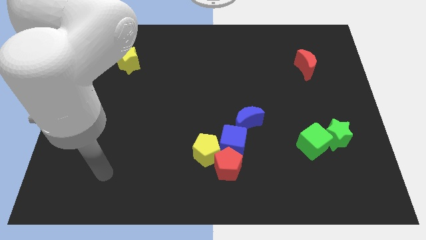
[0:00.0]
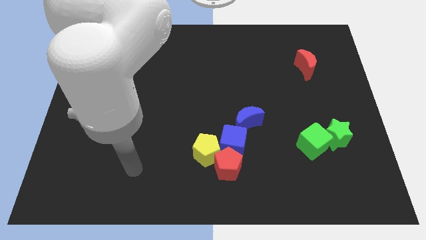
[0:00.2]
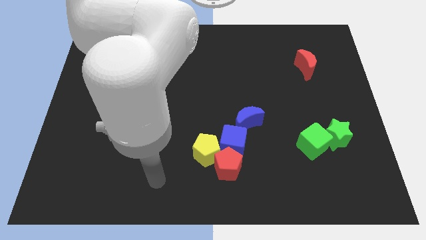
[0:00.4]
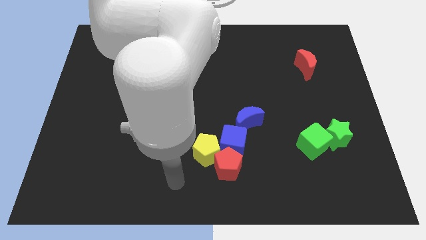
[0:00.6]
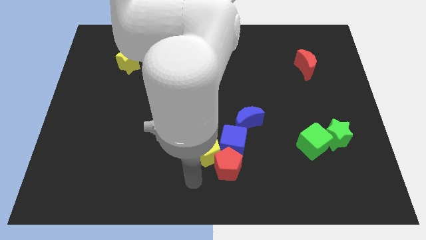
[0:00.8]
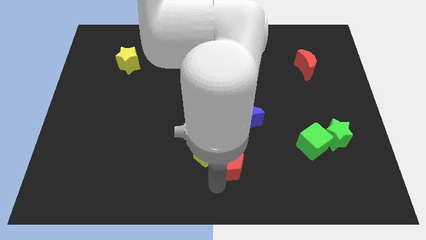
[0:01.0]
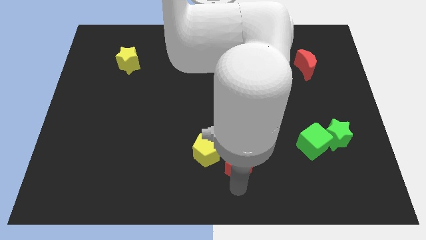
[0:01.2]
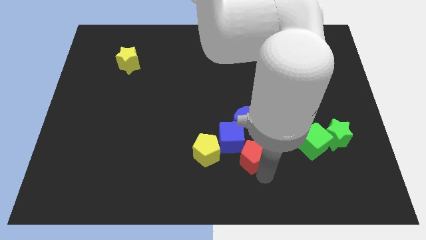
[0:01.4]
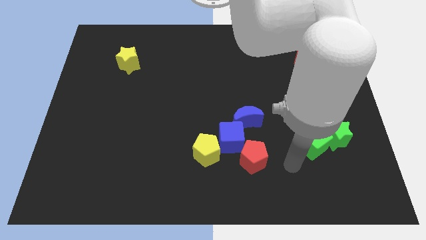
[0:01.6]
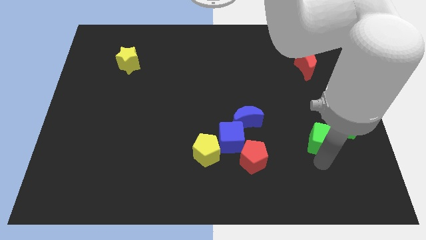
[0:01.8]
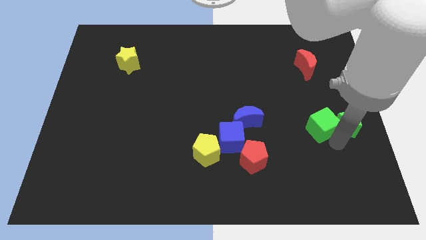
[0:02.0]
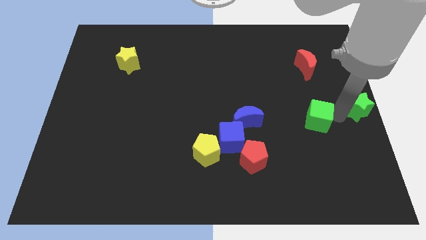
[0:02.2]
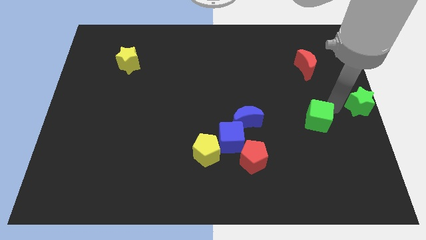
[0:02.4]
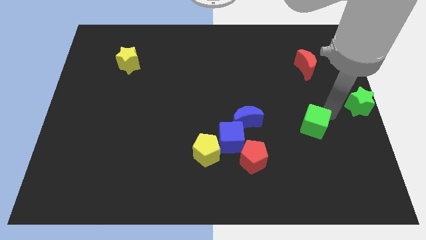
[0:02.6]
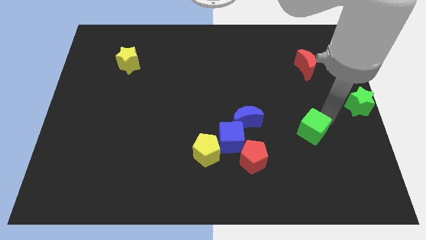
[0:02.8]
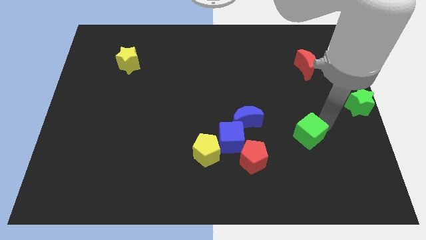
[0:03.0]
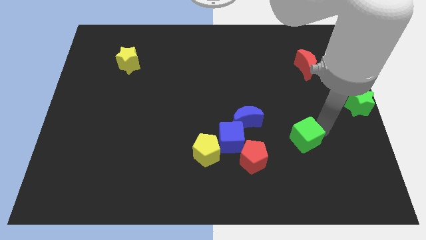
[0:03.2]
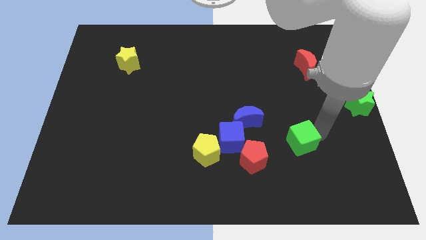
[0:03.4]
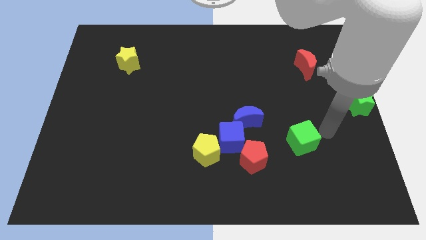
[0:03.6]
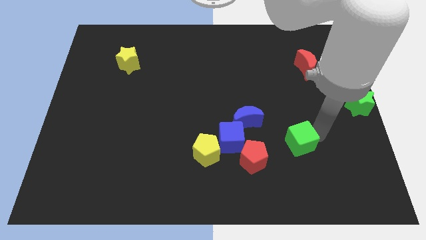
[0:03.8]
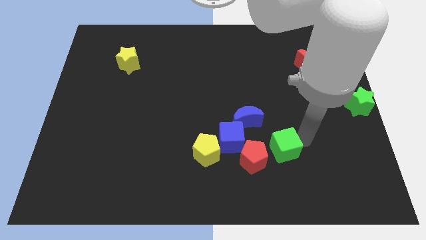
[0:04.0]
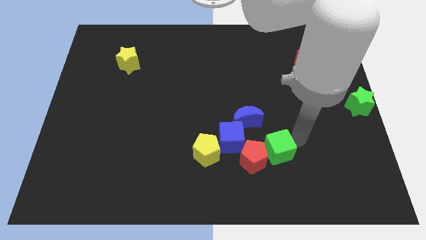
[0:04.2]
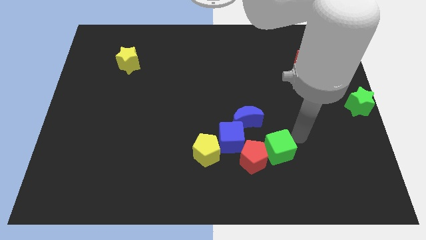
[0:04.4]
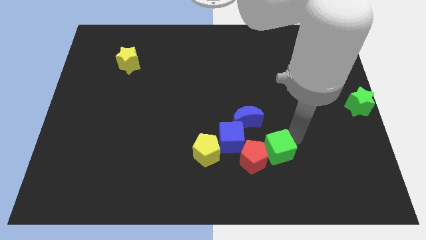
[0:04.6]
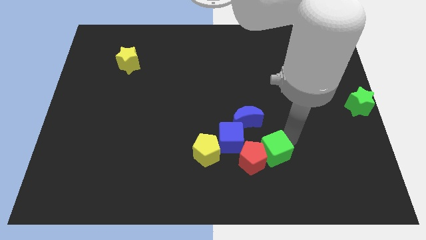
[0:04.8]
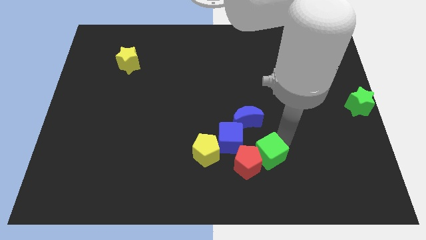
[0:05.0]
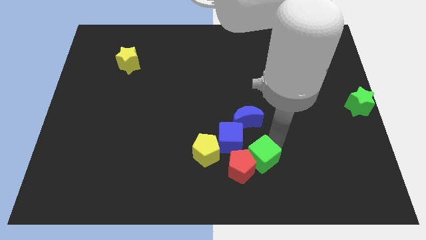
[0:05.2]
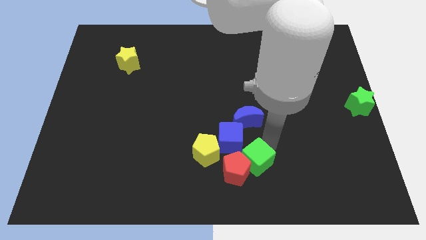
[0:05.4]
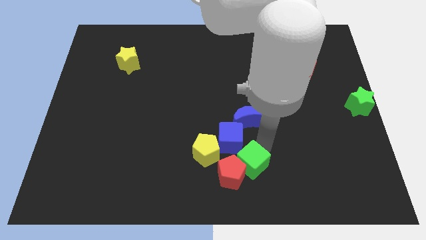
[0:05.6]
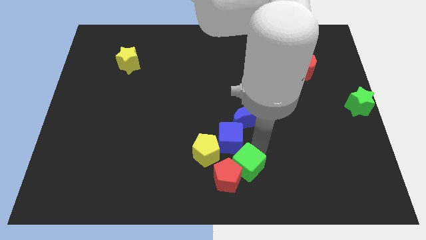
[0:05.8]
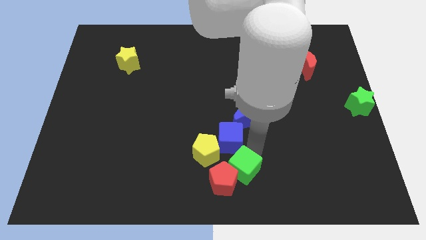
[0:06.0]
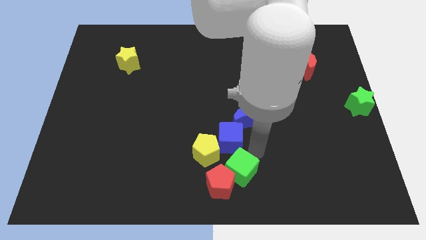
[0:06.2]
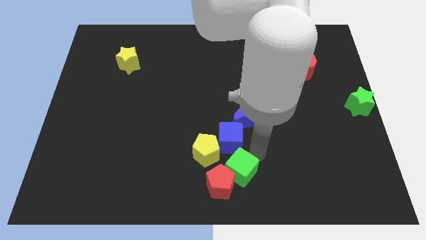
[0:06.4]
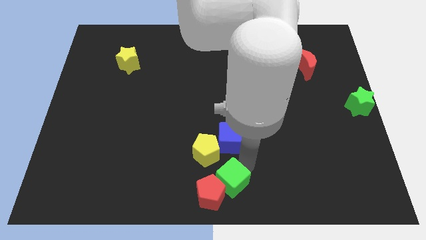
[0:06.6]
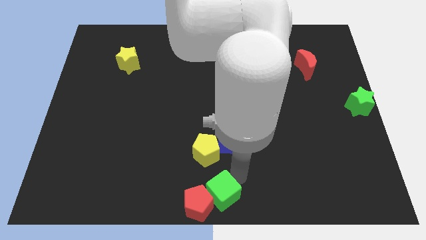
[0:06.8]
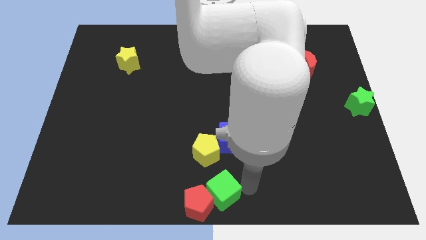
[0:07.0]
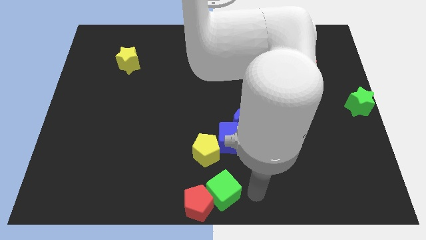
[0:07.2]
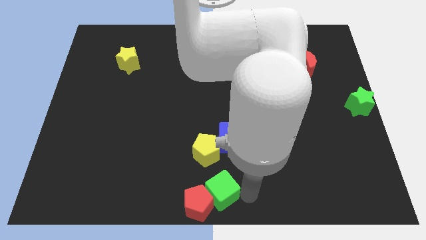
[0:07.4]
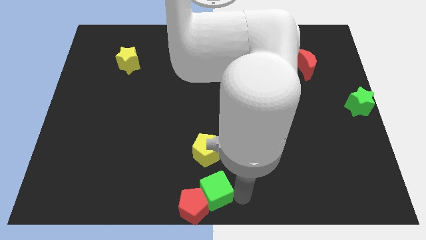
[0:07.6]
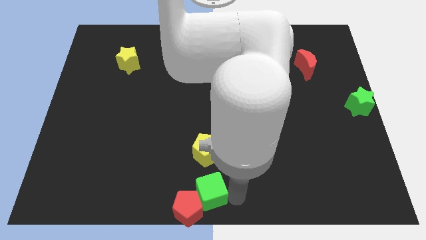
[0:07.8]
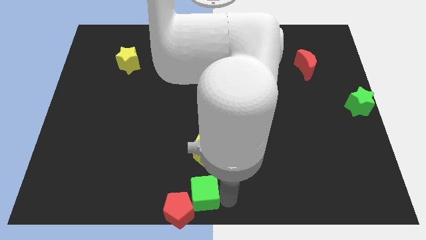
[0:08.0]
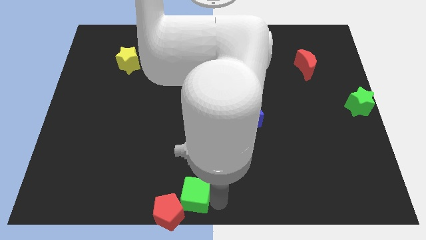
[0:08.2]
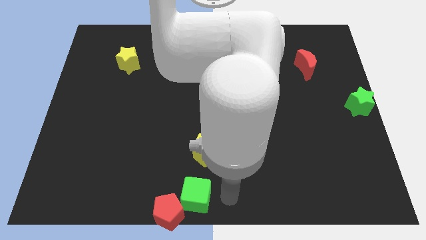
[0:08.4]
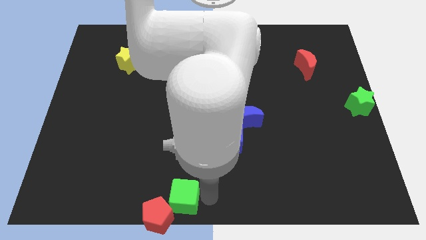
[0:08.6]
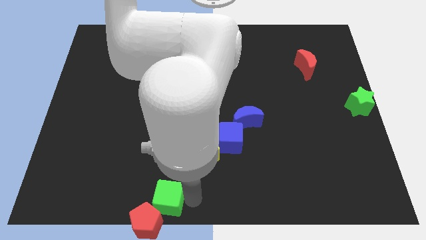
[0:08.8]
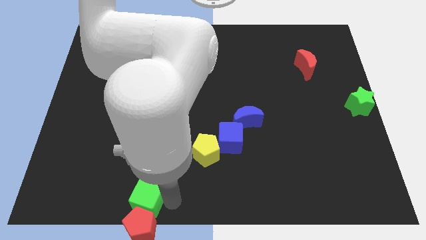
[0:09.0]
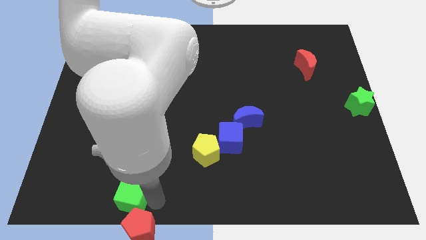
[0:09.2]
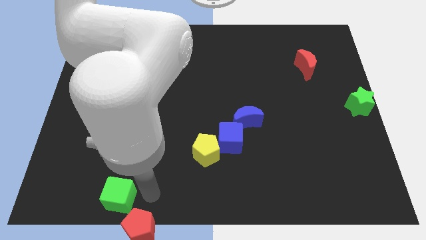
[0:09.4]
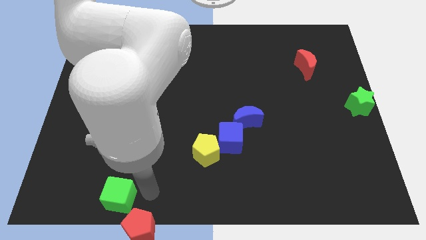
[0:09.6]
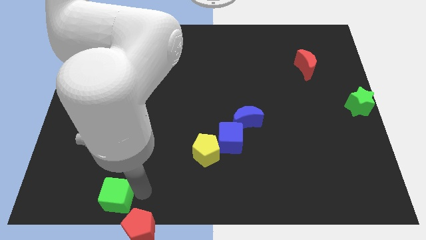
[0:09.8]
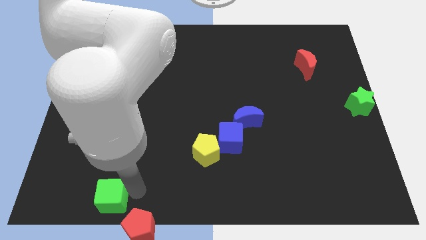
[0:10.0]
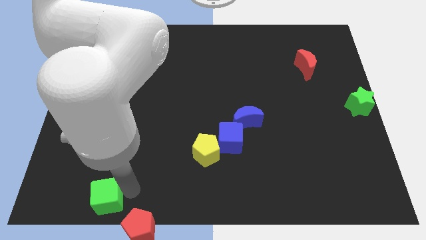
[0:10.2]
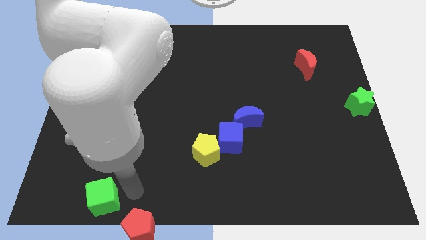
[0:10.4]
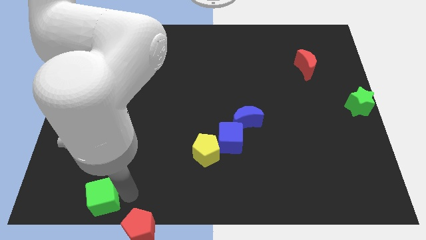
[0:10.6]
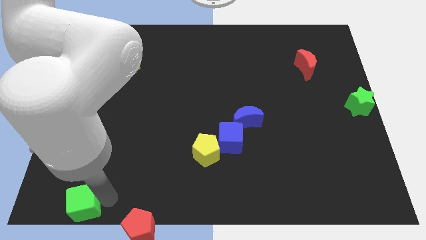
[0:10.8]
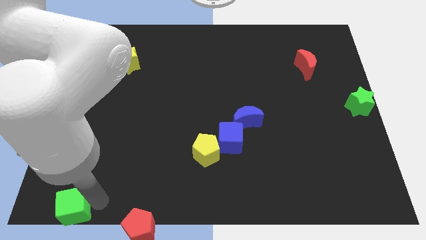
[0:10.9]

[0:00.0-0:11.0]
slide the green cube to the bottom left

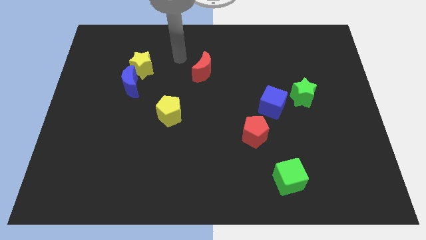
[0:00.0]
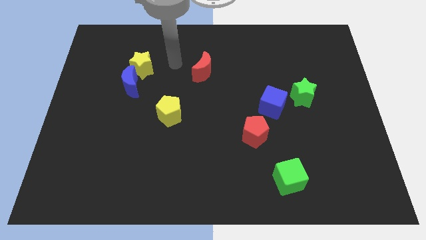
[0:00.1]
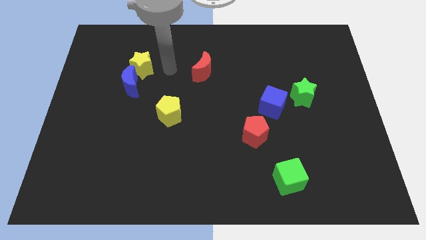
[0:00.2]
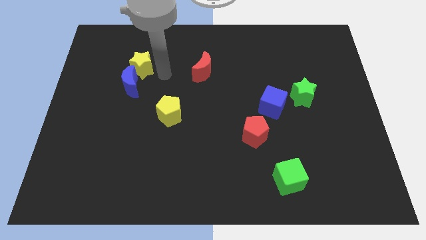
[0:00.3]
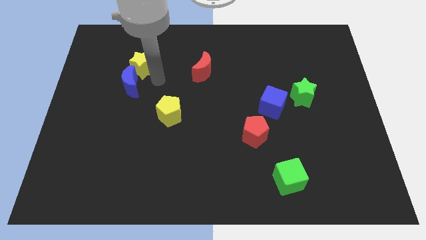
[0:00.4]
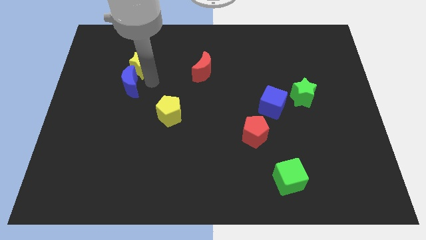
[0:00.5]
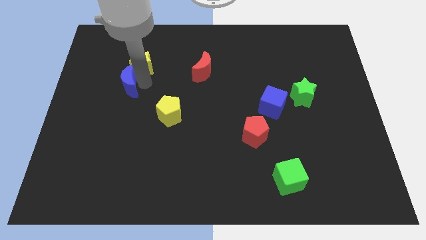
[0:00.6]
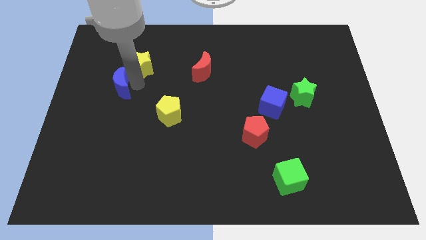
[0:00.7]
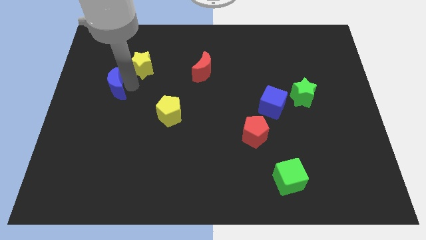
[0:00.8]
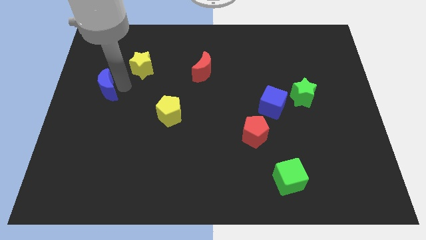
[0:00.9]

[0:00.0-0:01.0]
put the blue moon to the center left
